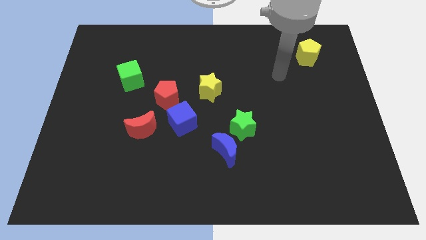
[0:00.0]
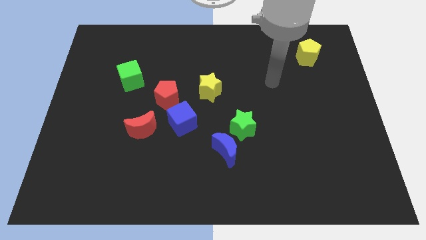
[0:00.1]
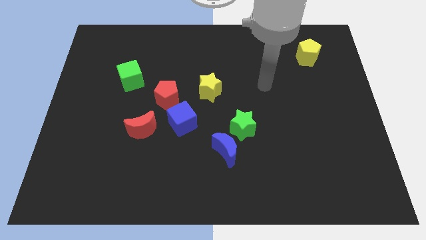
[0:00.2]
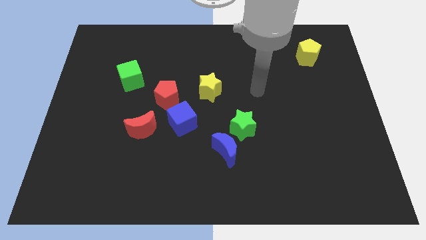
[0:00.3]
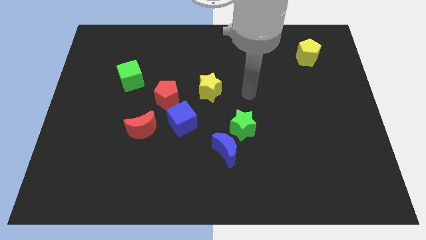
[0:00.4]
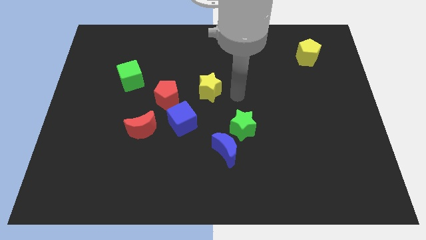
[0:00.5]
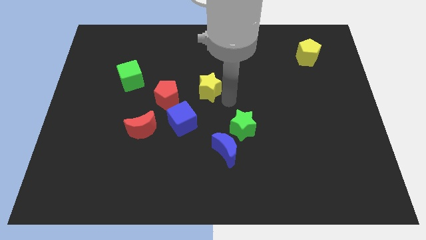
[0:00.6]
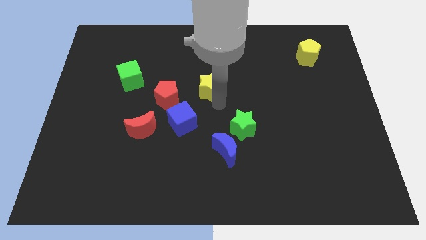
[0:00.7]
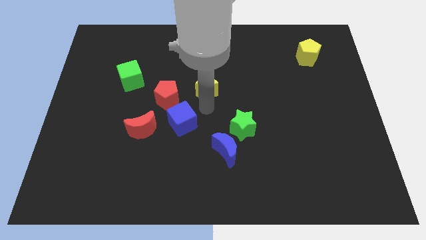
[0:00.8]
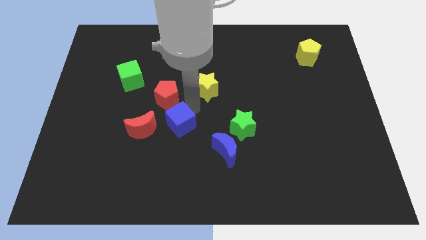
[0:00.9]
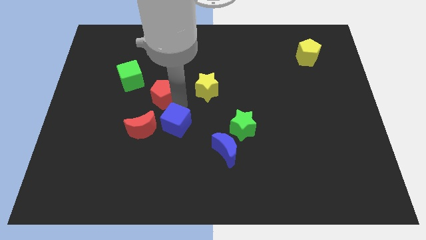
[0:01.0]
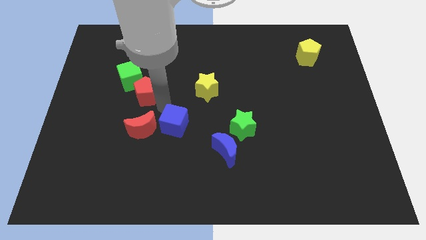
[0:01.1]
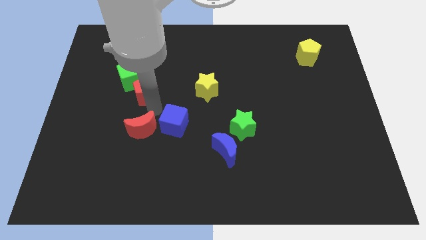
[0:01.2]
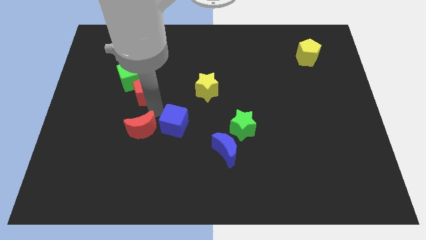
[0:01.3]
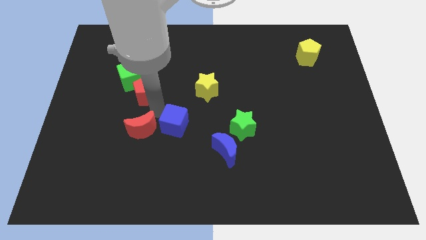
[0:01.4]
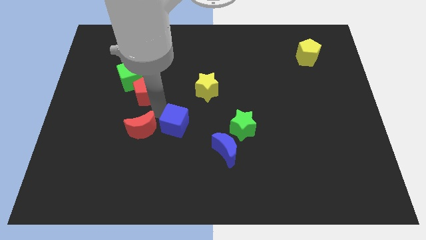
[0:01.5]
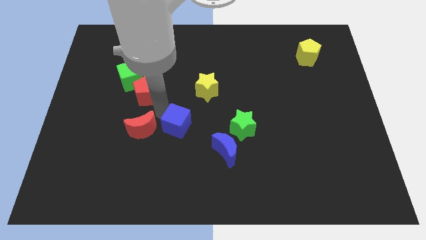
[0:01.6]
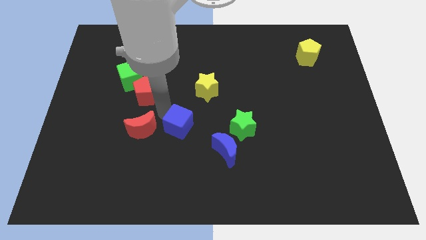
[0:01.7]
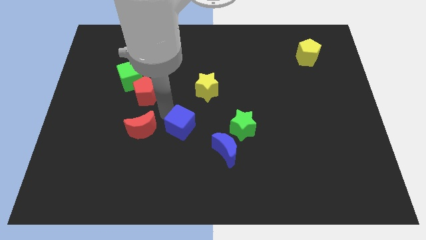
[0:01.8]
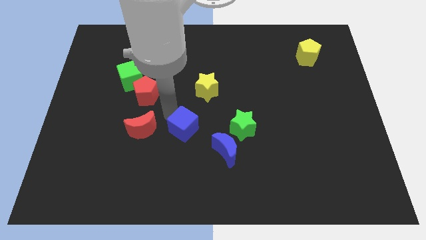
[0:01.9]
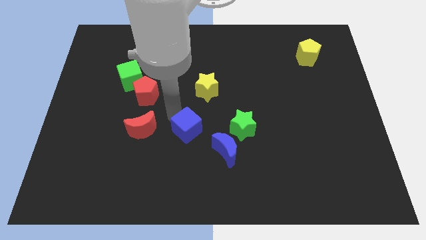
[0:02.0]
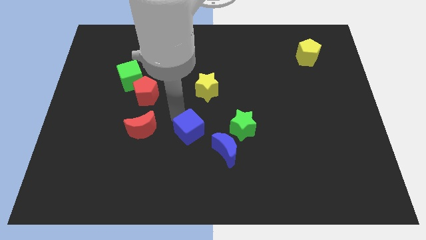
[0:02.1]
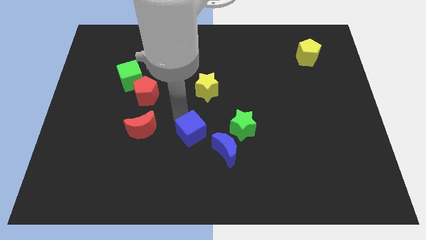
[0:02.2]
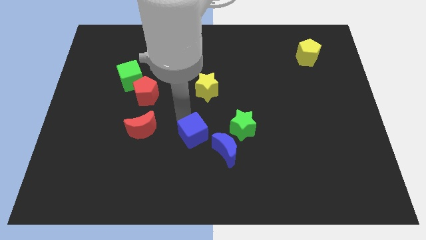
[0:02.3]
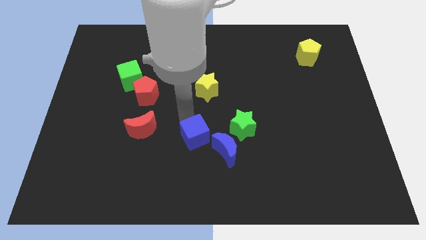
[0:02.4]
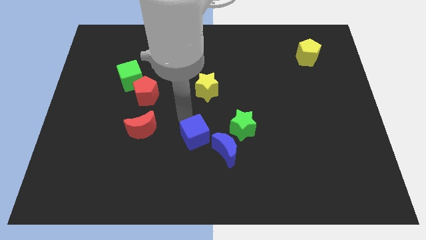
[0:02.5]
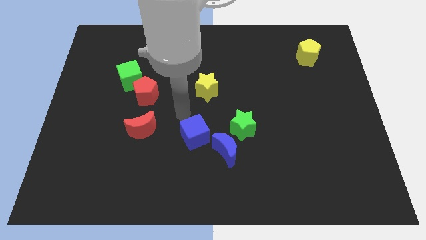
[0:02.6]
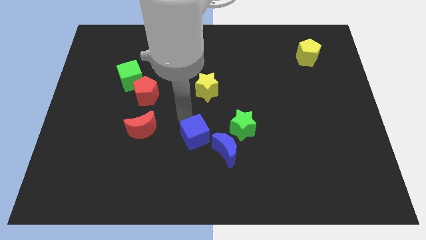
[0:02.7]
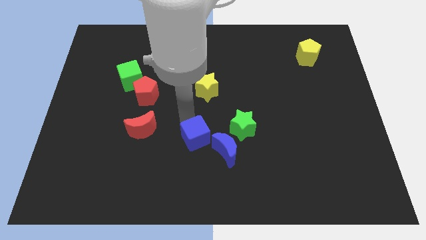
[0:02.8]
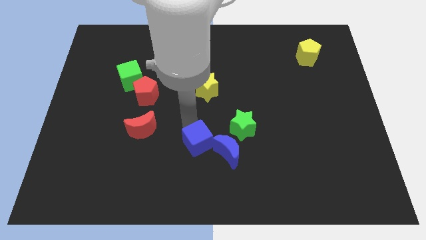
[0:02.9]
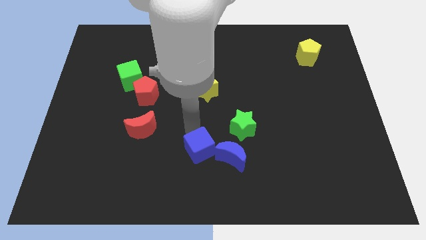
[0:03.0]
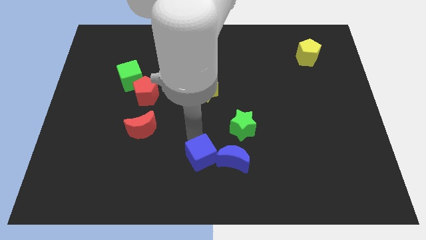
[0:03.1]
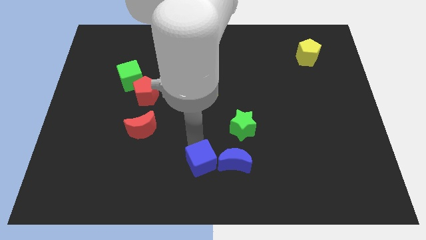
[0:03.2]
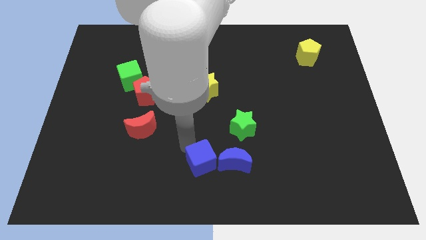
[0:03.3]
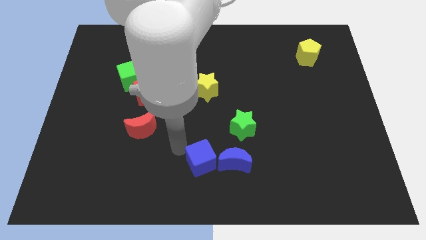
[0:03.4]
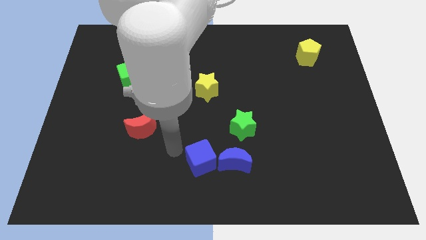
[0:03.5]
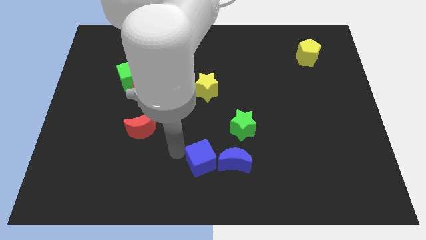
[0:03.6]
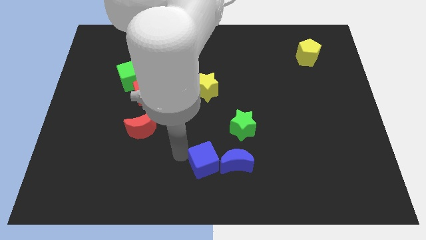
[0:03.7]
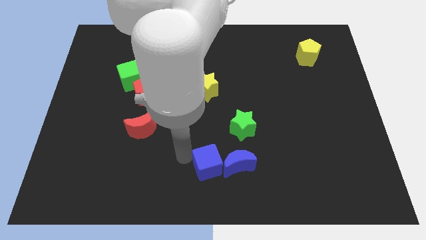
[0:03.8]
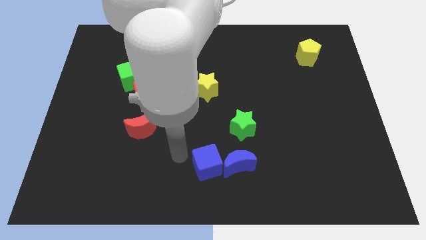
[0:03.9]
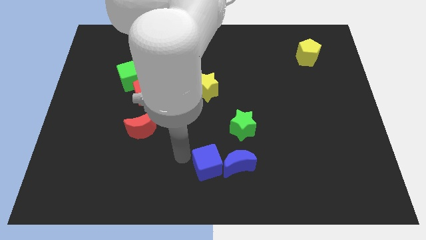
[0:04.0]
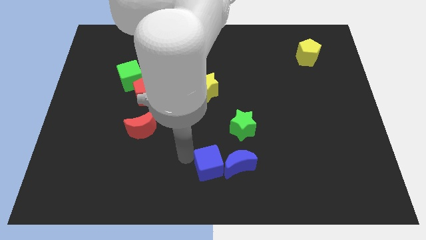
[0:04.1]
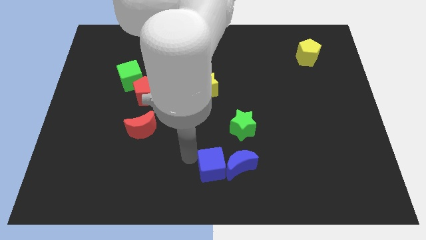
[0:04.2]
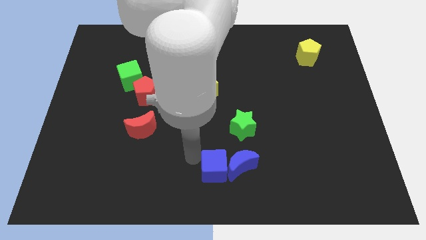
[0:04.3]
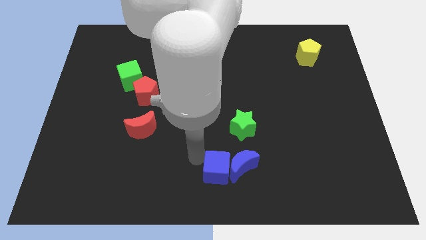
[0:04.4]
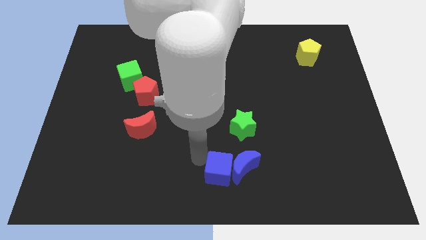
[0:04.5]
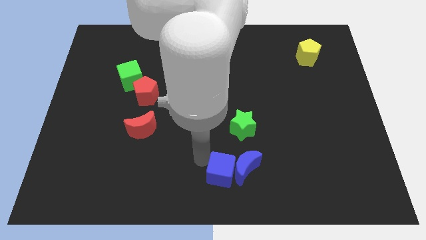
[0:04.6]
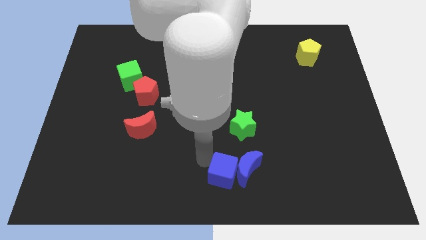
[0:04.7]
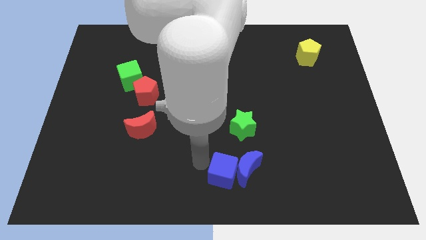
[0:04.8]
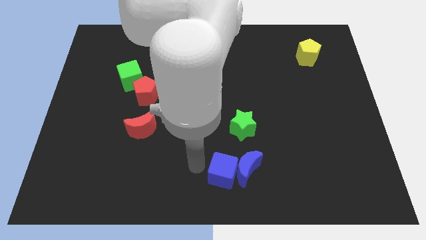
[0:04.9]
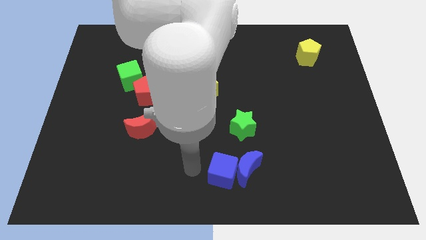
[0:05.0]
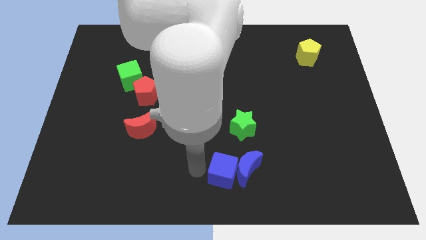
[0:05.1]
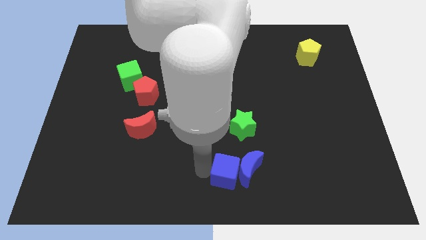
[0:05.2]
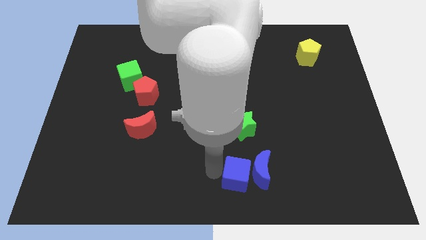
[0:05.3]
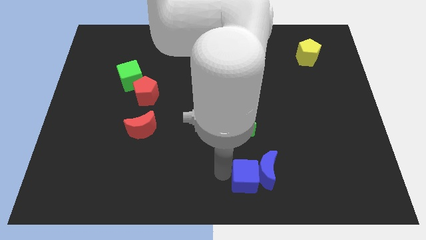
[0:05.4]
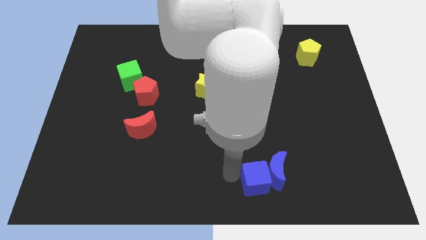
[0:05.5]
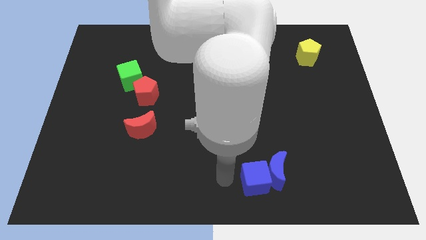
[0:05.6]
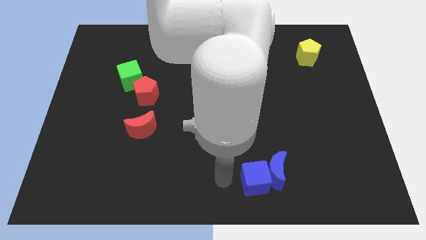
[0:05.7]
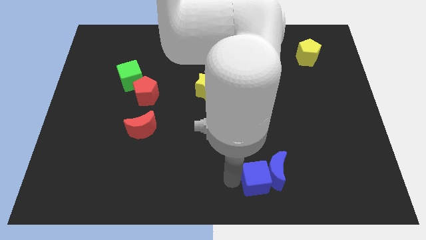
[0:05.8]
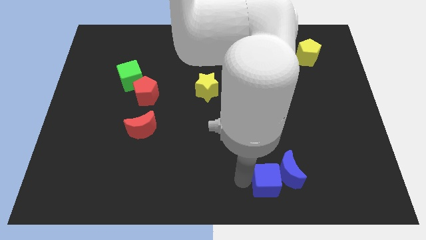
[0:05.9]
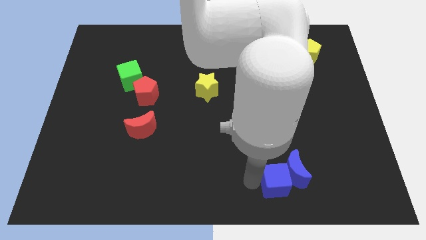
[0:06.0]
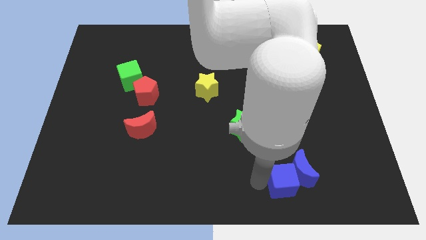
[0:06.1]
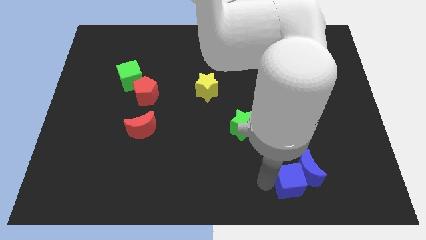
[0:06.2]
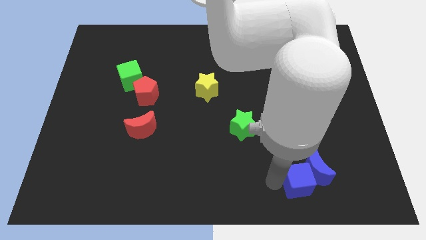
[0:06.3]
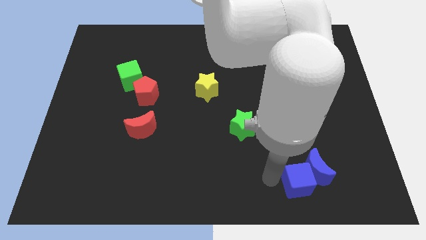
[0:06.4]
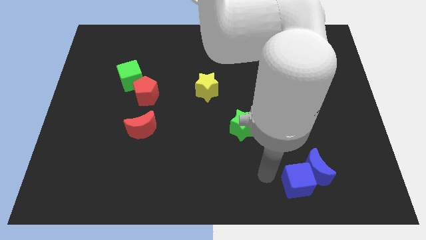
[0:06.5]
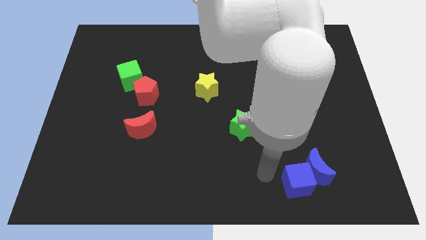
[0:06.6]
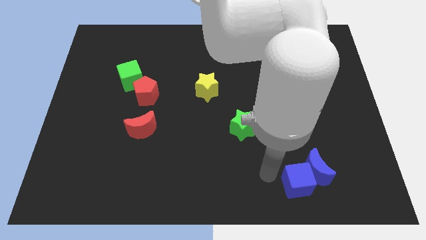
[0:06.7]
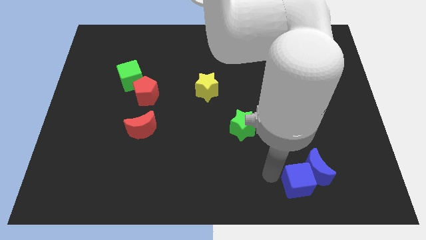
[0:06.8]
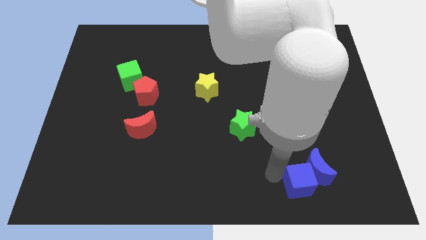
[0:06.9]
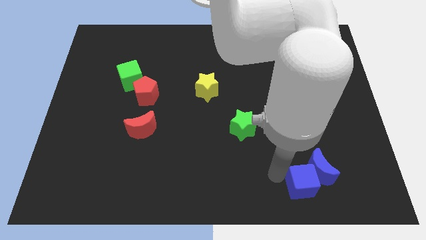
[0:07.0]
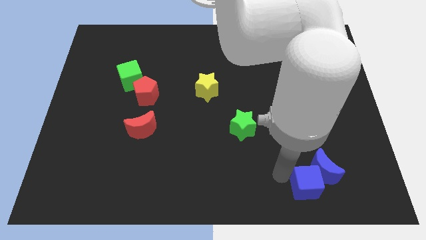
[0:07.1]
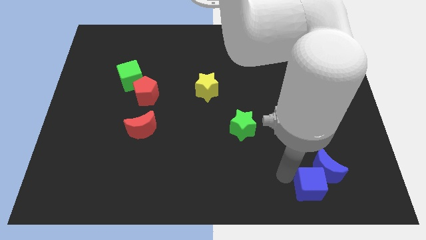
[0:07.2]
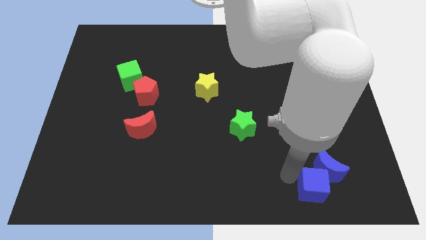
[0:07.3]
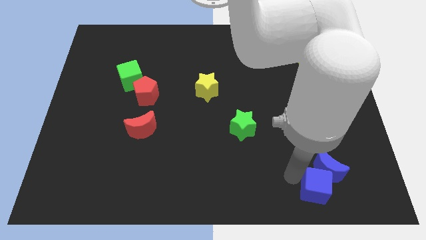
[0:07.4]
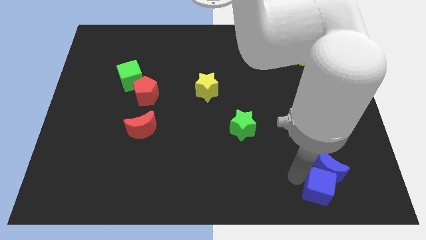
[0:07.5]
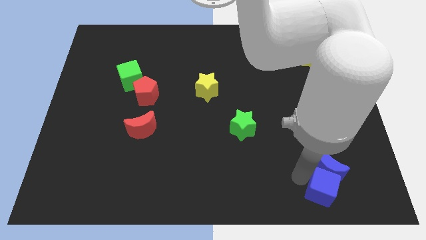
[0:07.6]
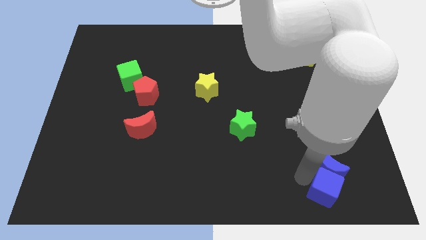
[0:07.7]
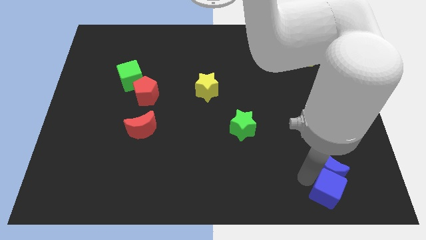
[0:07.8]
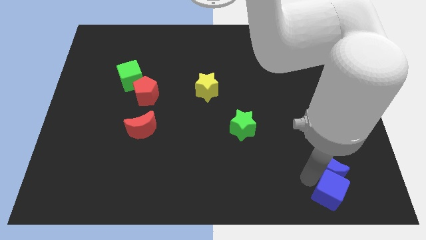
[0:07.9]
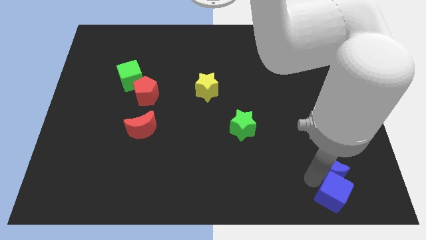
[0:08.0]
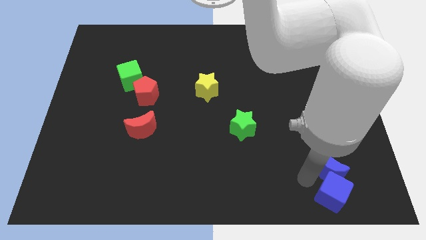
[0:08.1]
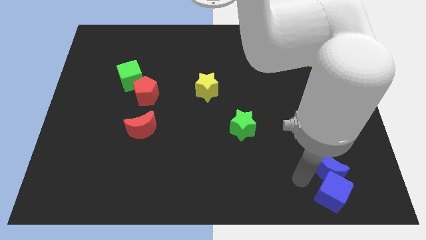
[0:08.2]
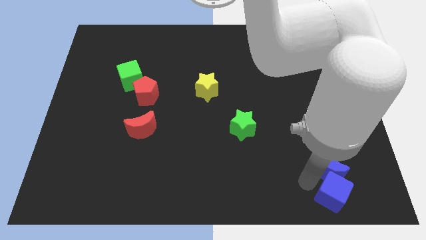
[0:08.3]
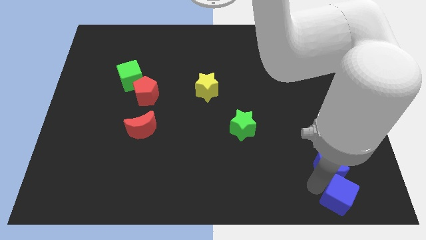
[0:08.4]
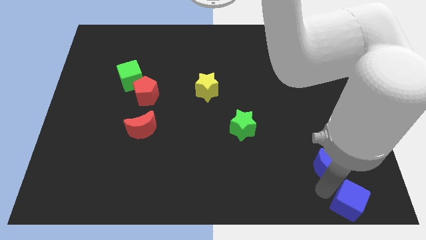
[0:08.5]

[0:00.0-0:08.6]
move the blue cube to the lower right corner
